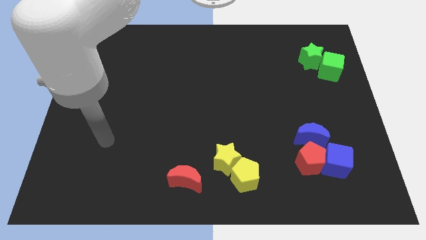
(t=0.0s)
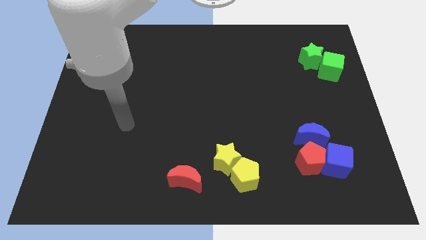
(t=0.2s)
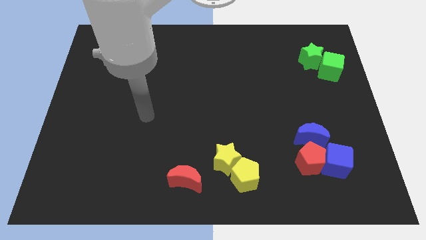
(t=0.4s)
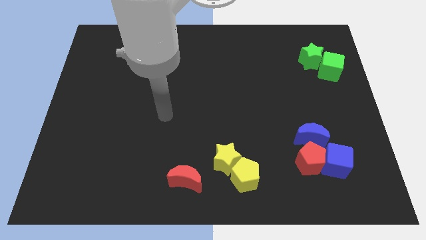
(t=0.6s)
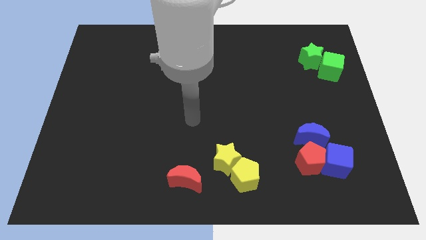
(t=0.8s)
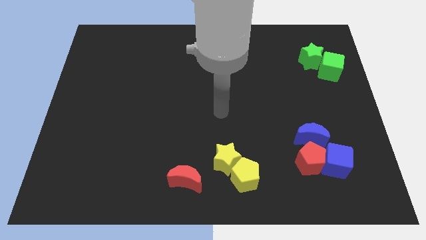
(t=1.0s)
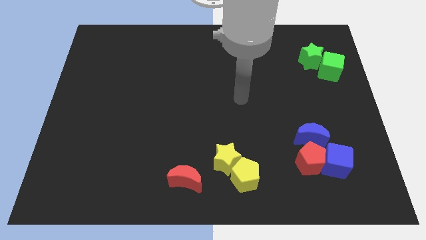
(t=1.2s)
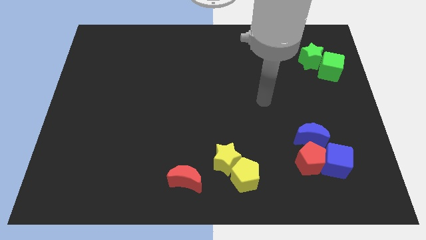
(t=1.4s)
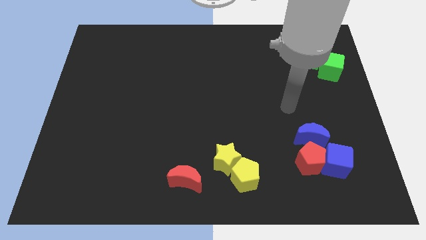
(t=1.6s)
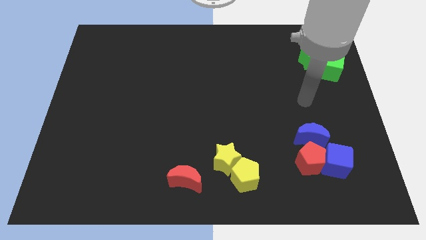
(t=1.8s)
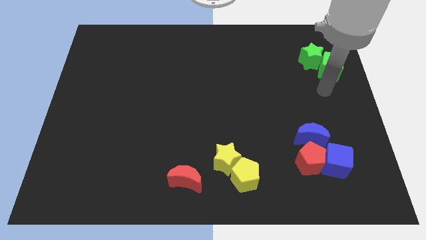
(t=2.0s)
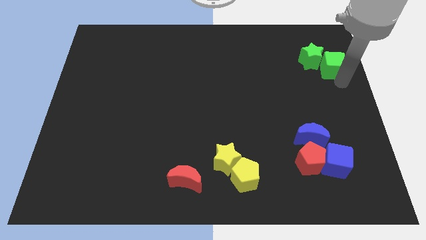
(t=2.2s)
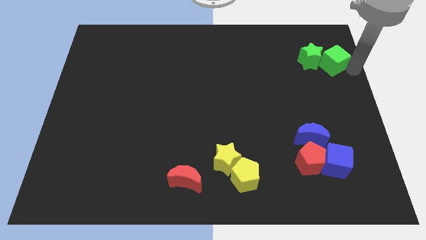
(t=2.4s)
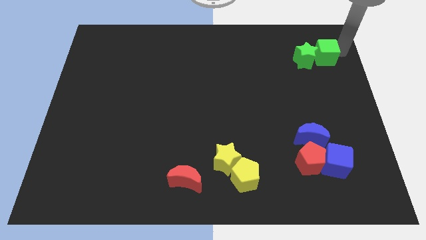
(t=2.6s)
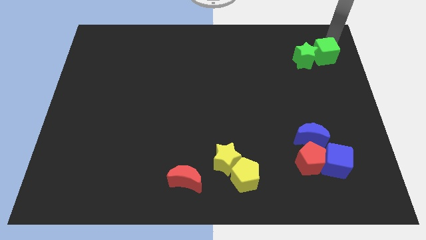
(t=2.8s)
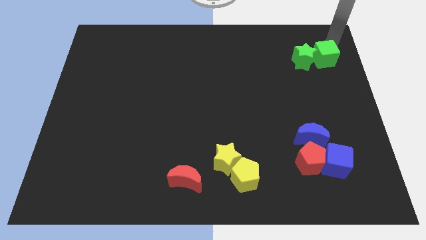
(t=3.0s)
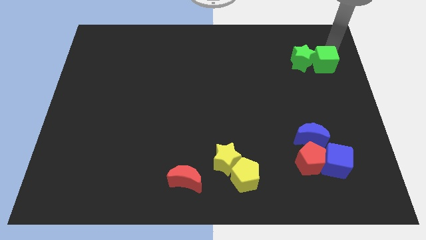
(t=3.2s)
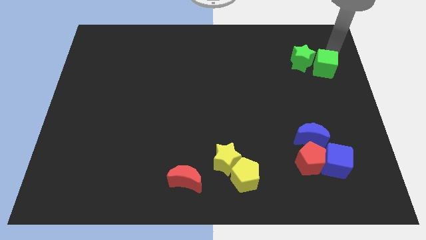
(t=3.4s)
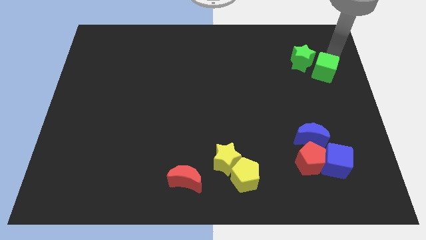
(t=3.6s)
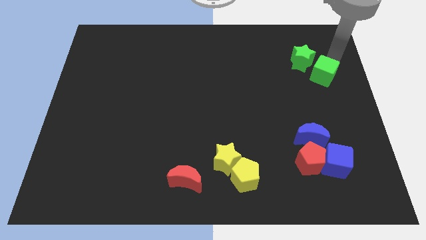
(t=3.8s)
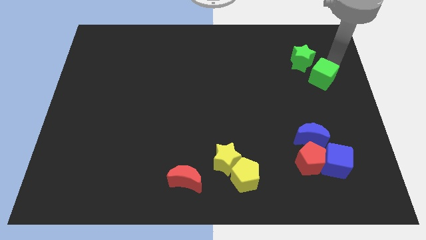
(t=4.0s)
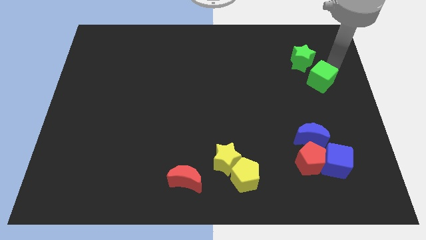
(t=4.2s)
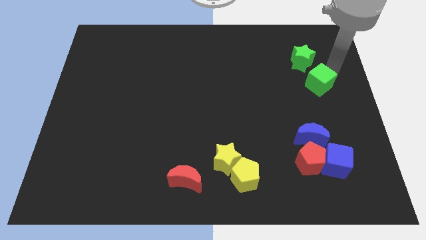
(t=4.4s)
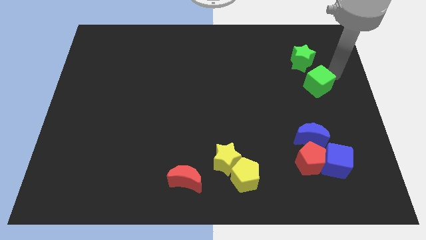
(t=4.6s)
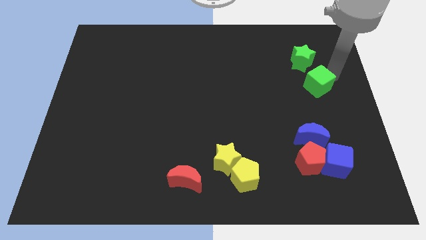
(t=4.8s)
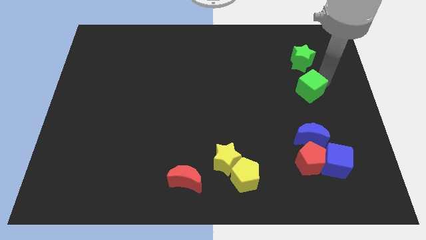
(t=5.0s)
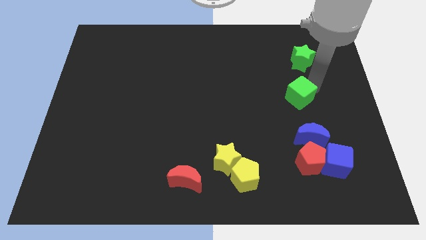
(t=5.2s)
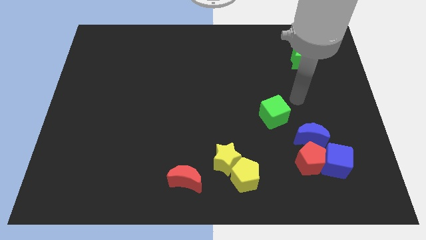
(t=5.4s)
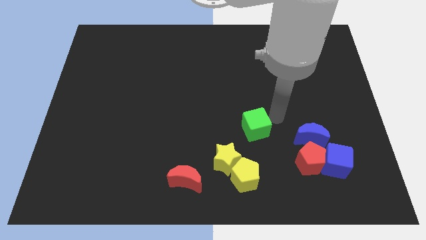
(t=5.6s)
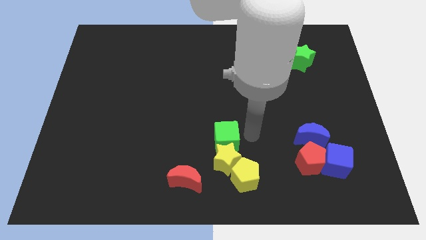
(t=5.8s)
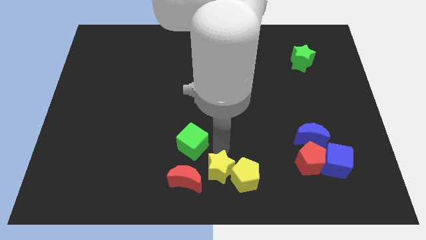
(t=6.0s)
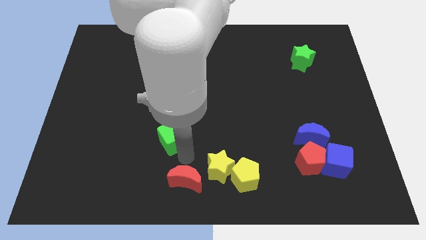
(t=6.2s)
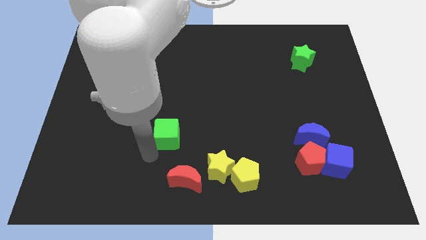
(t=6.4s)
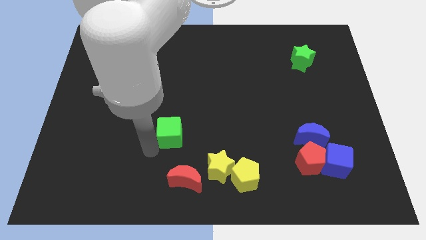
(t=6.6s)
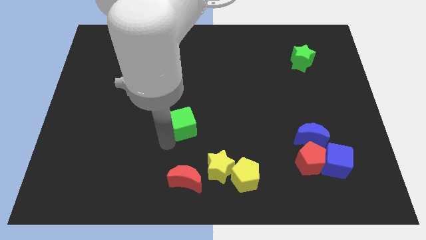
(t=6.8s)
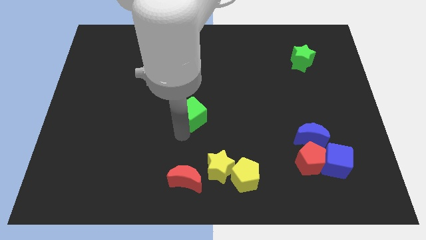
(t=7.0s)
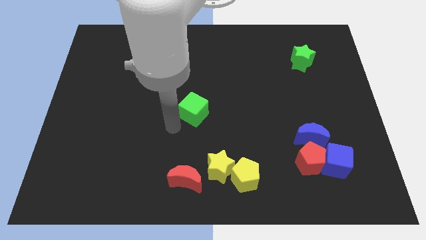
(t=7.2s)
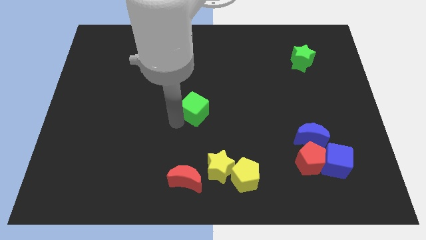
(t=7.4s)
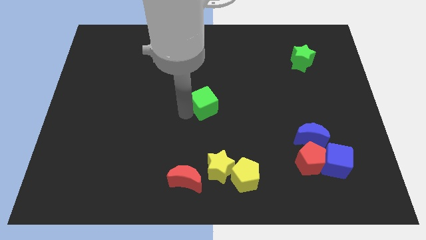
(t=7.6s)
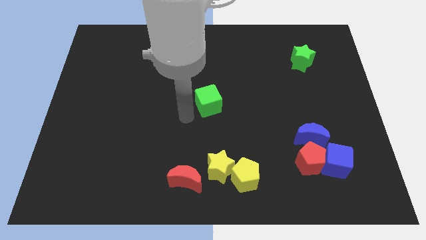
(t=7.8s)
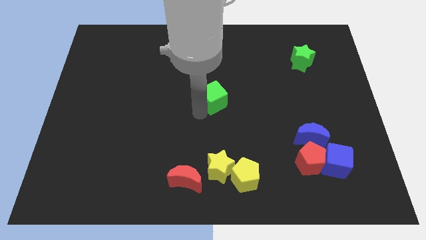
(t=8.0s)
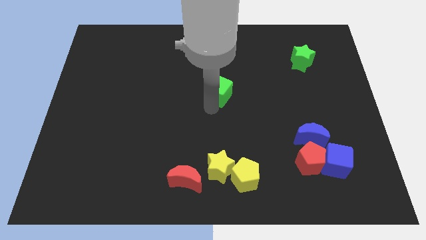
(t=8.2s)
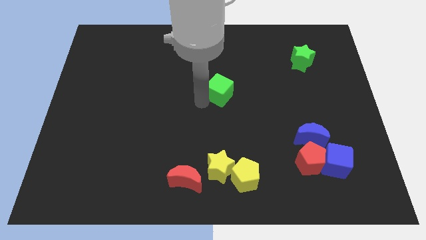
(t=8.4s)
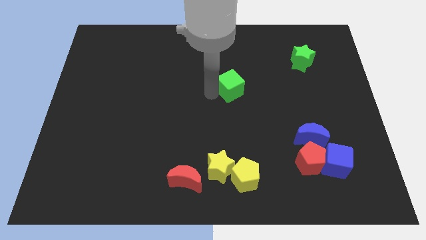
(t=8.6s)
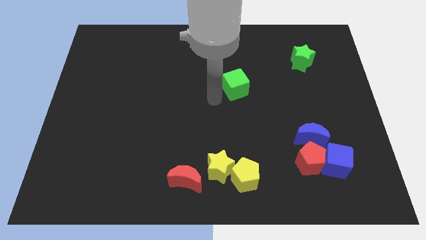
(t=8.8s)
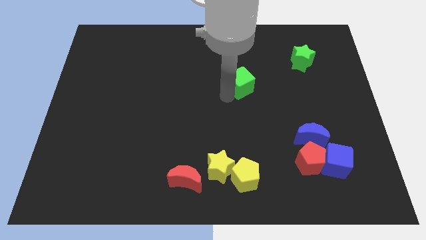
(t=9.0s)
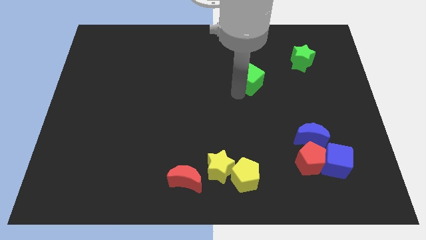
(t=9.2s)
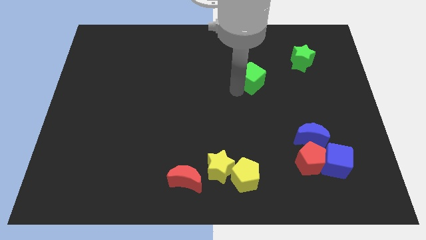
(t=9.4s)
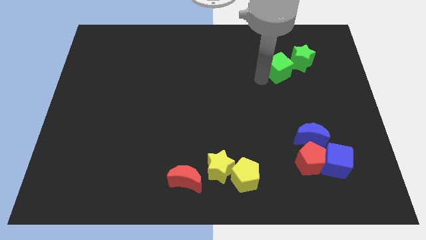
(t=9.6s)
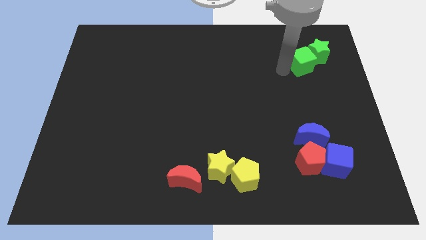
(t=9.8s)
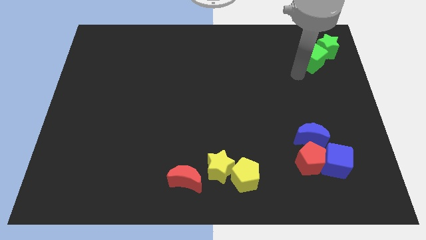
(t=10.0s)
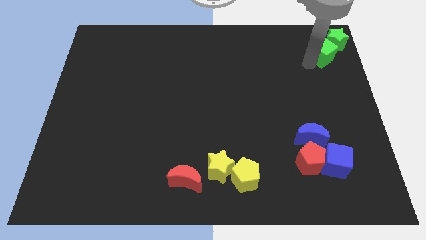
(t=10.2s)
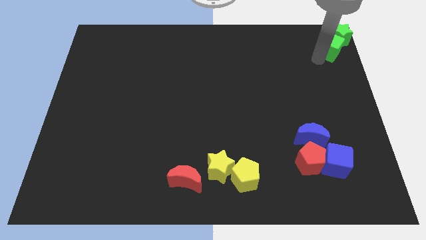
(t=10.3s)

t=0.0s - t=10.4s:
put the green cube to the top right corner

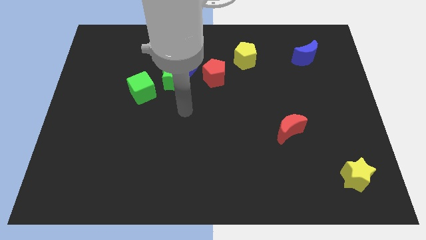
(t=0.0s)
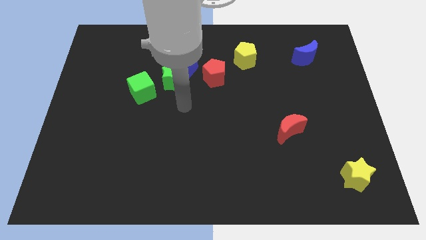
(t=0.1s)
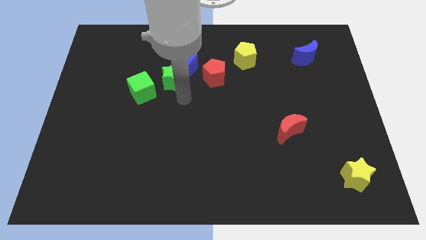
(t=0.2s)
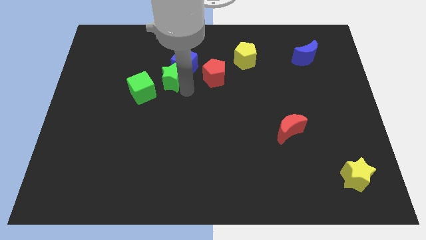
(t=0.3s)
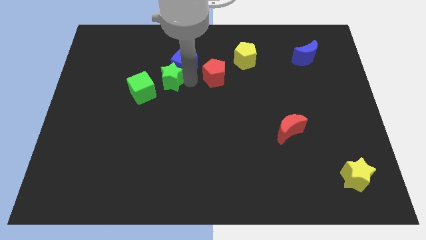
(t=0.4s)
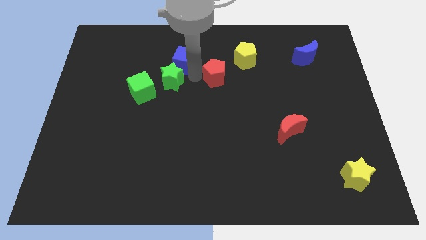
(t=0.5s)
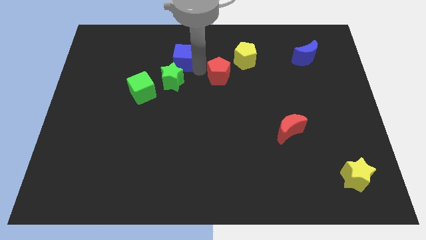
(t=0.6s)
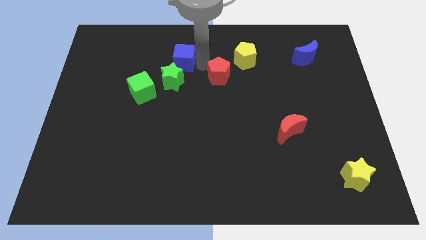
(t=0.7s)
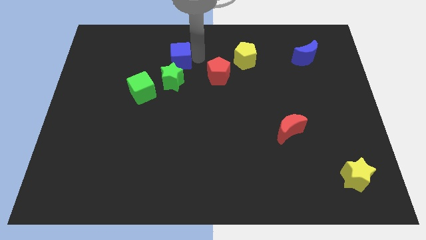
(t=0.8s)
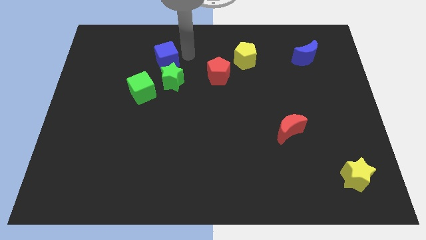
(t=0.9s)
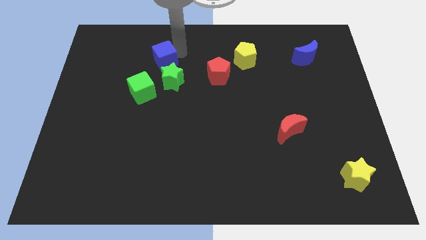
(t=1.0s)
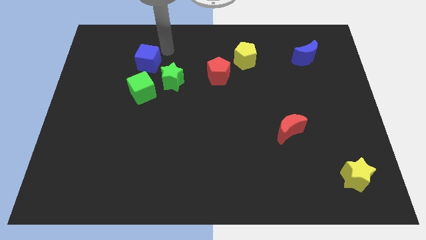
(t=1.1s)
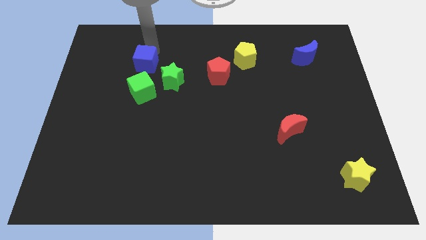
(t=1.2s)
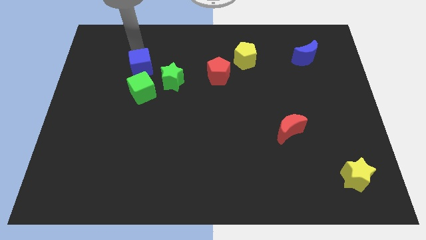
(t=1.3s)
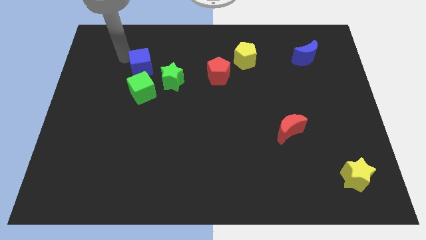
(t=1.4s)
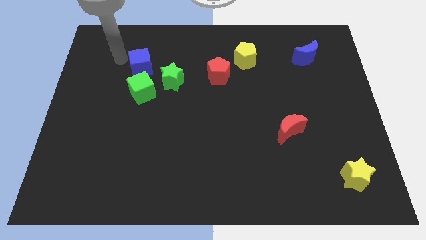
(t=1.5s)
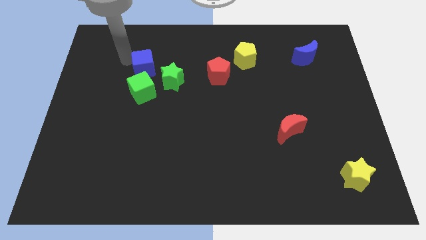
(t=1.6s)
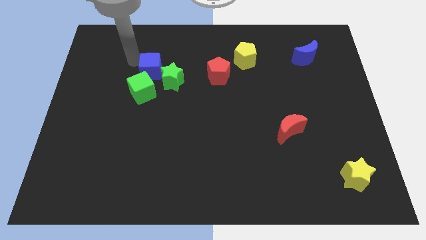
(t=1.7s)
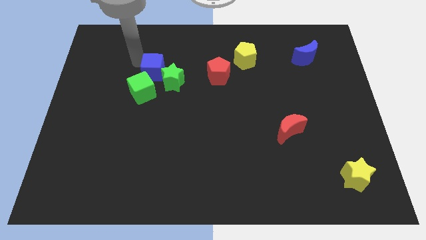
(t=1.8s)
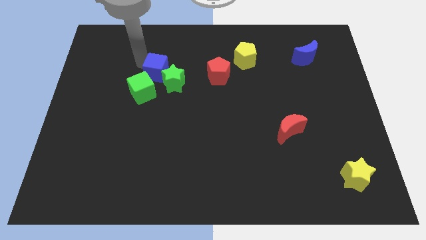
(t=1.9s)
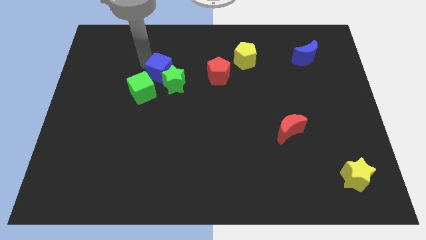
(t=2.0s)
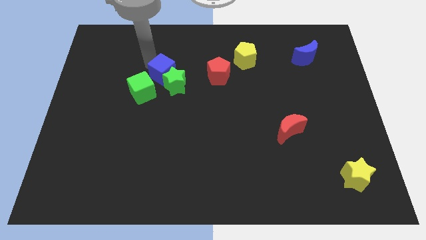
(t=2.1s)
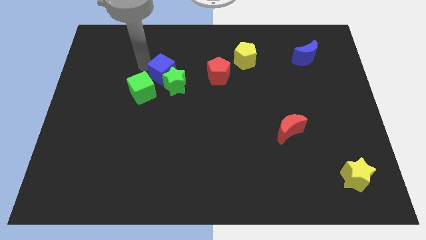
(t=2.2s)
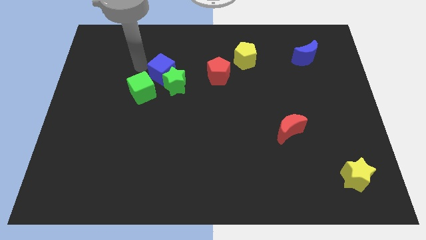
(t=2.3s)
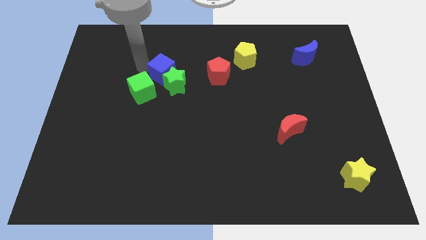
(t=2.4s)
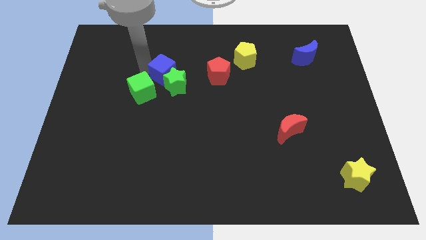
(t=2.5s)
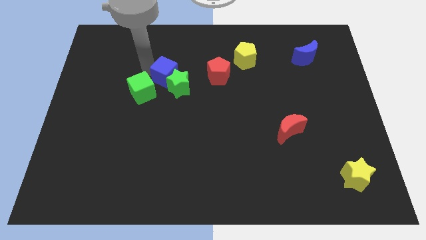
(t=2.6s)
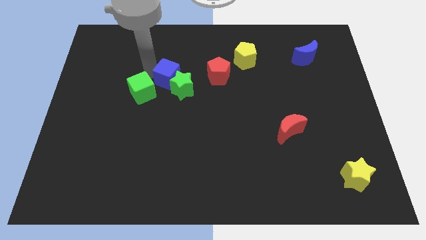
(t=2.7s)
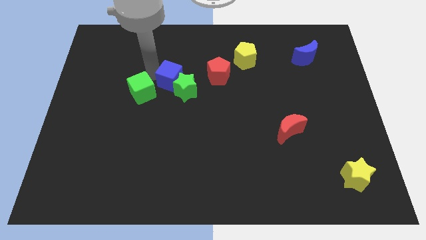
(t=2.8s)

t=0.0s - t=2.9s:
move the blue cube to the center
